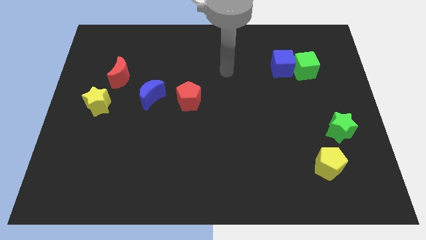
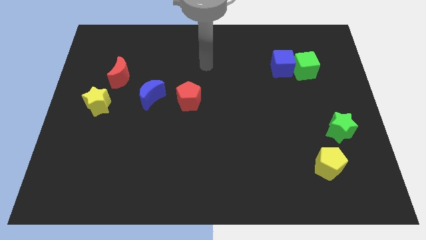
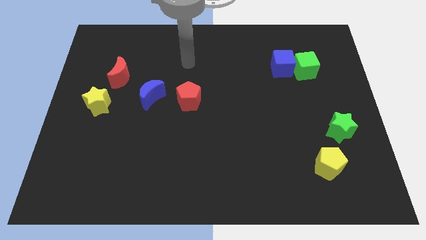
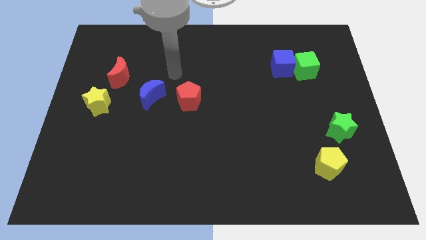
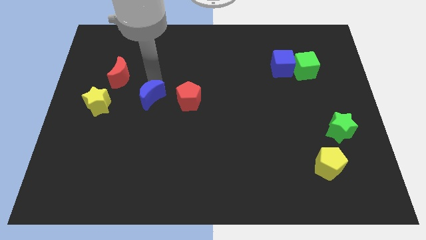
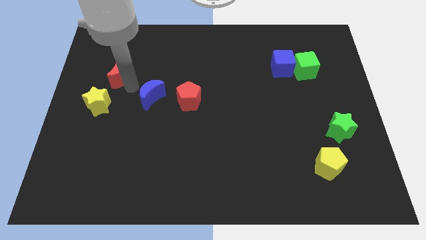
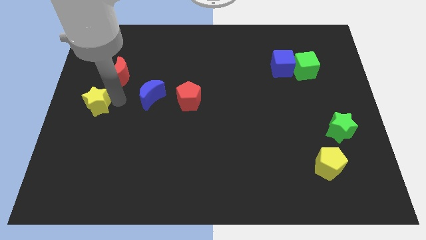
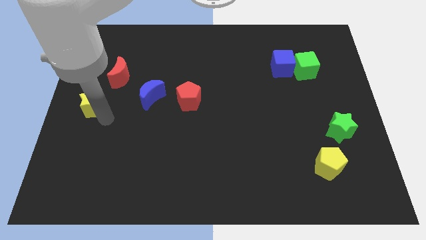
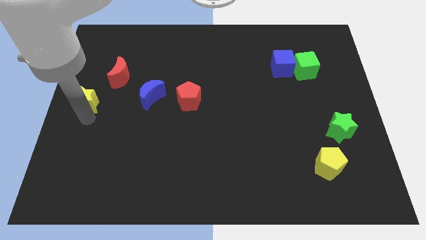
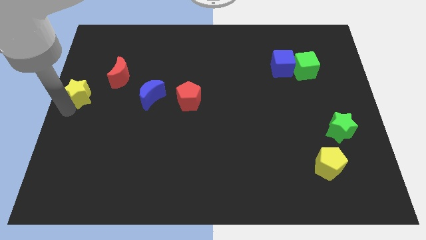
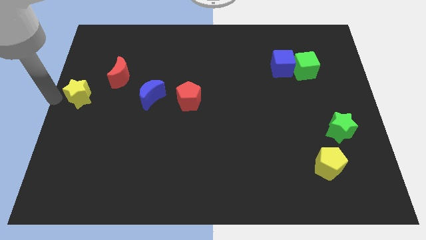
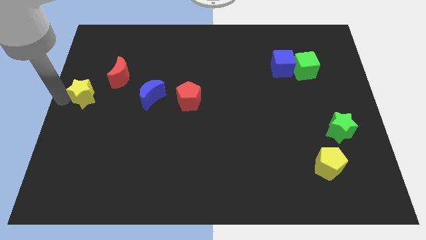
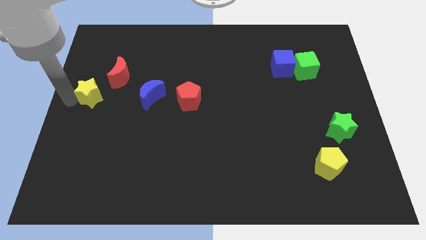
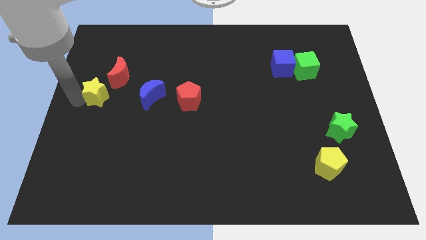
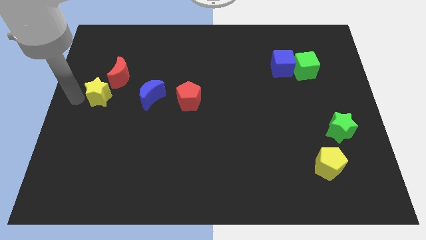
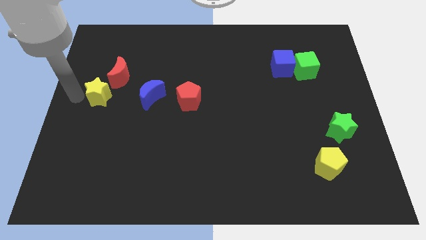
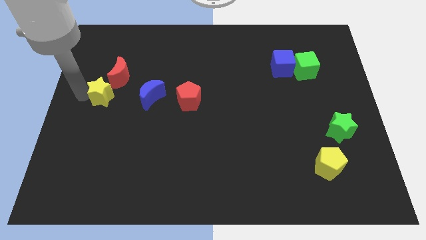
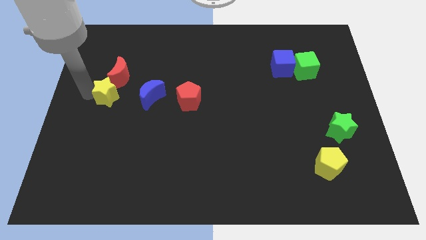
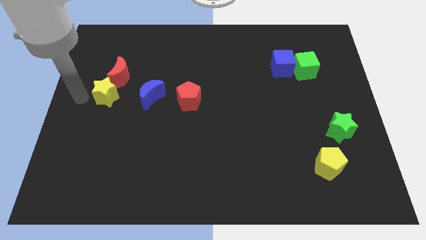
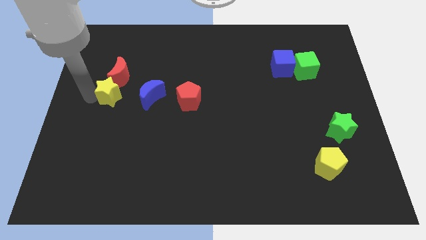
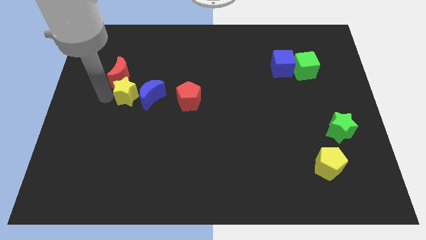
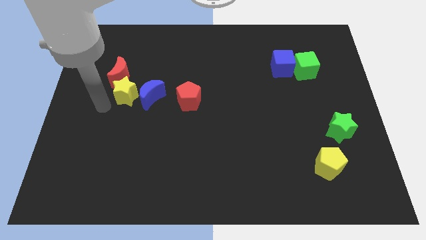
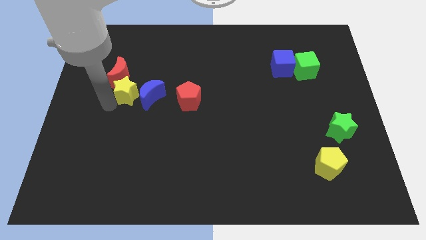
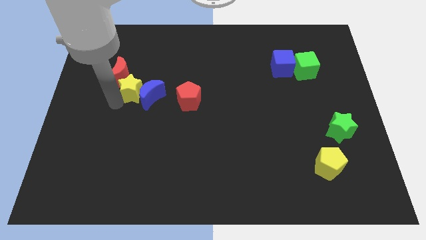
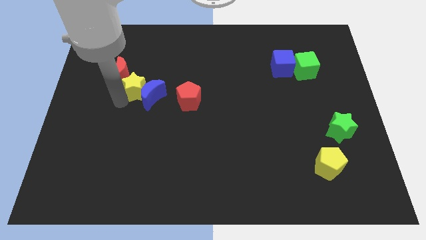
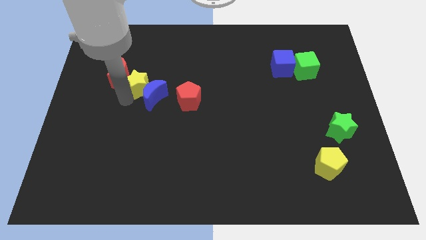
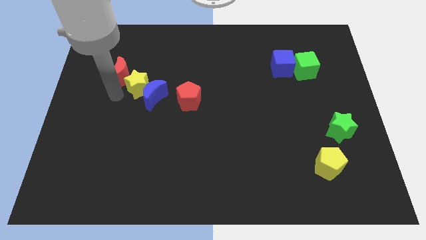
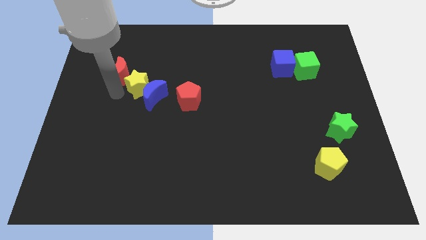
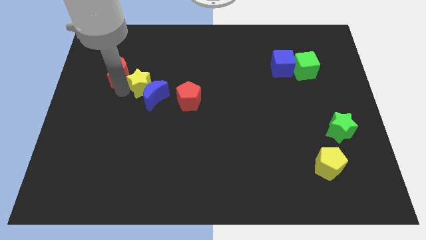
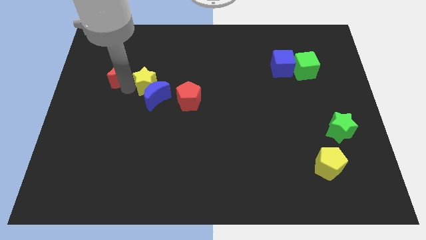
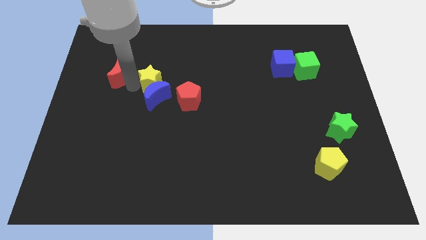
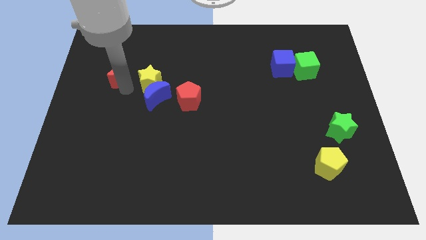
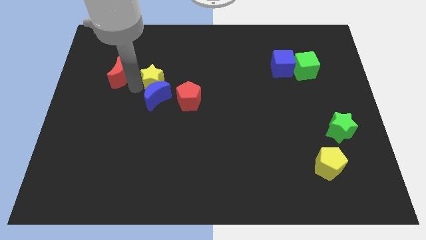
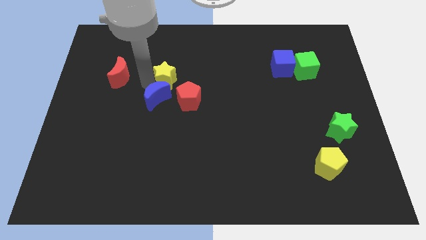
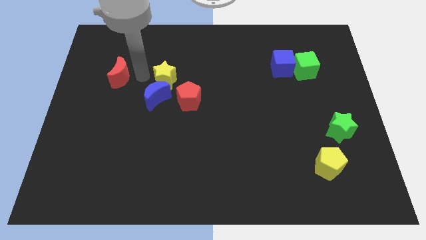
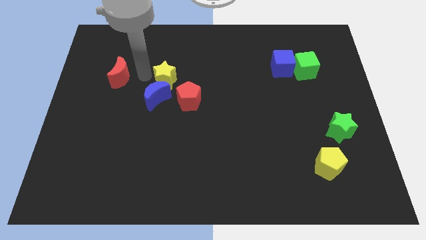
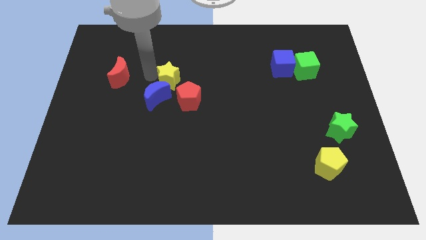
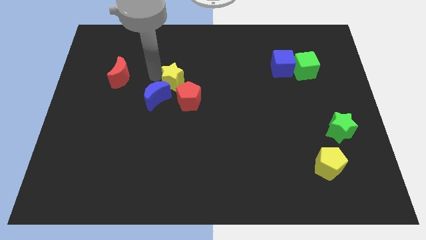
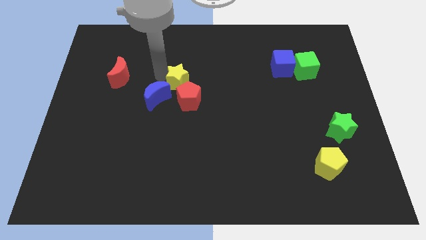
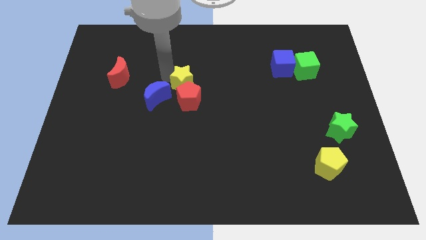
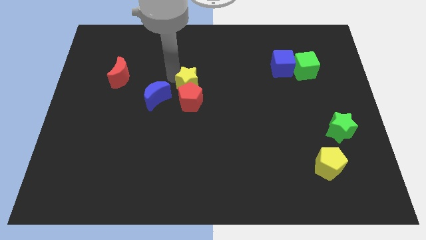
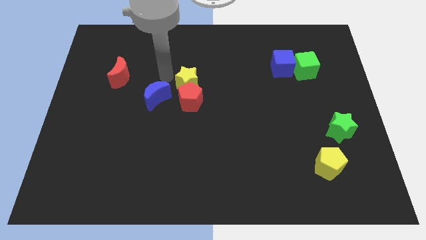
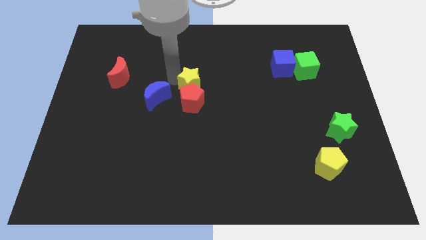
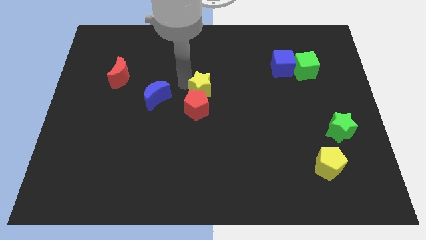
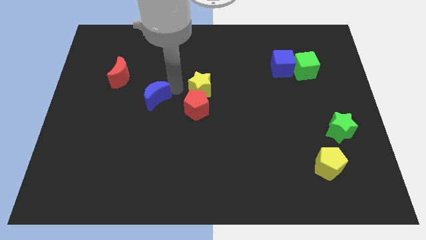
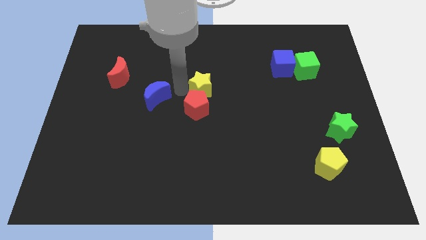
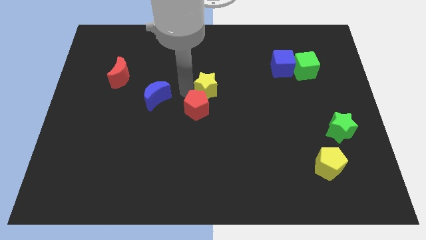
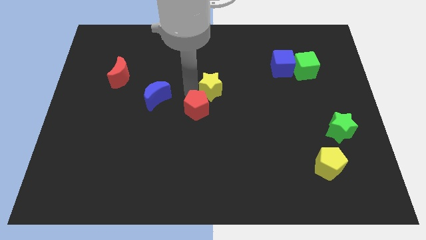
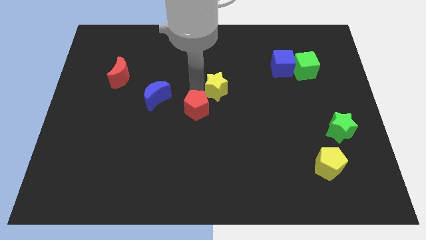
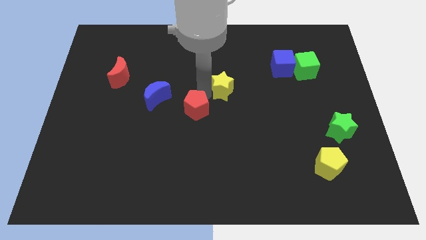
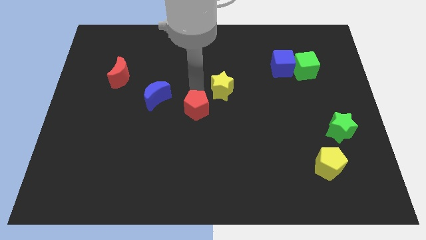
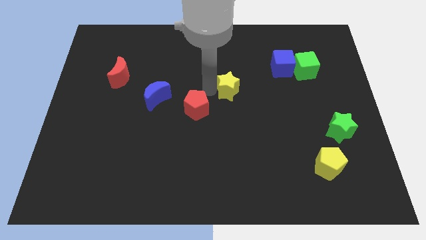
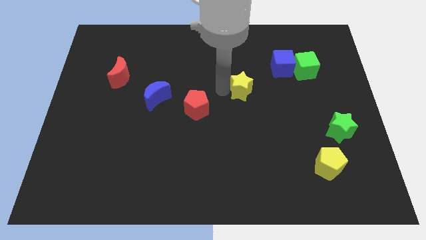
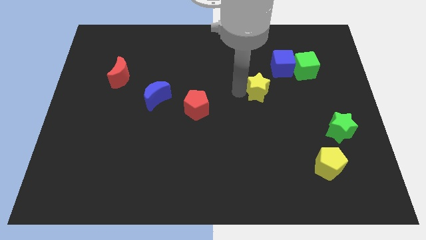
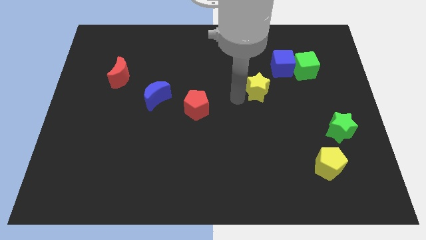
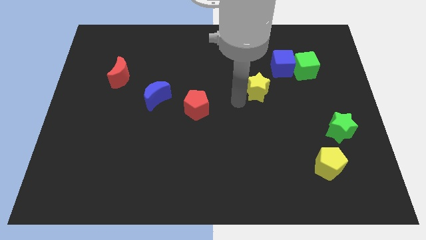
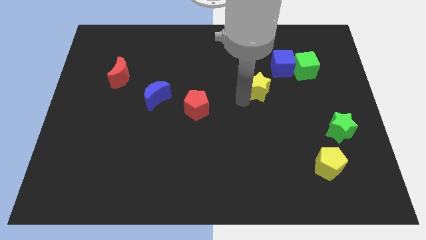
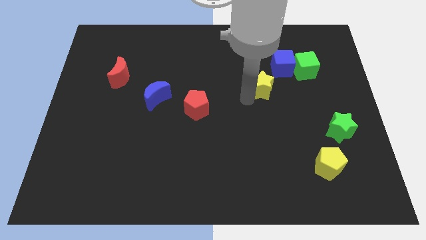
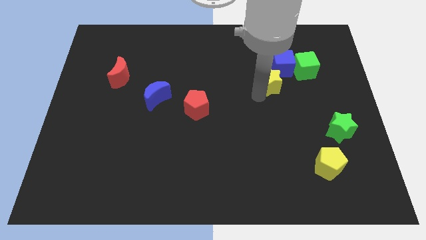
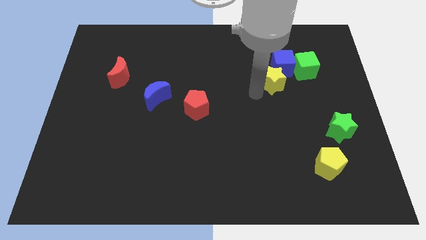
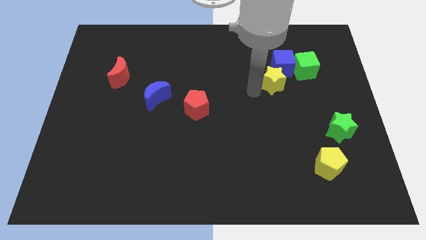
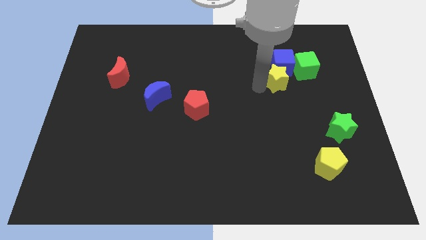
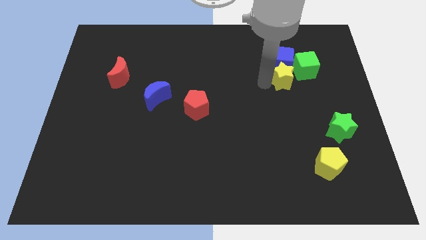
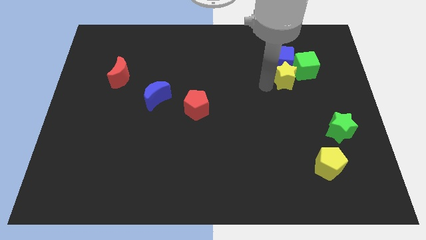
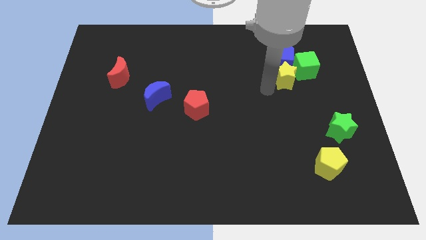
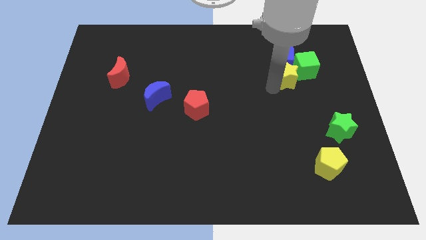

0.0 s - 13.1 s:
put the yellow star close to the green cube
